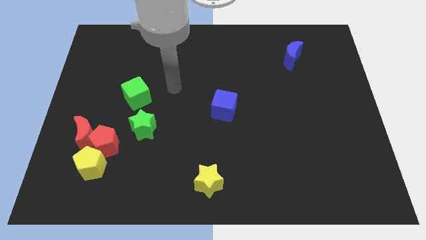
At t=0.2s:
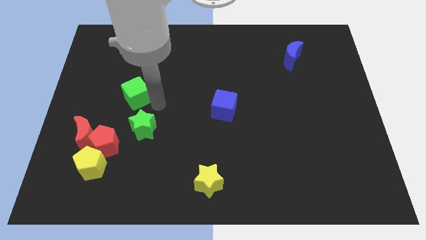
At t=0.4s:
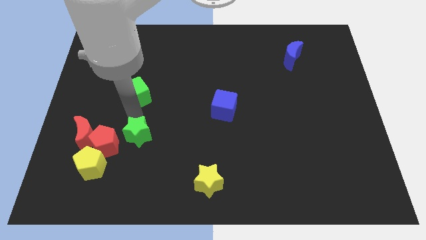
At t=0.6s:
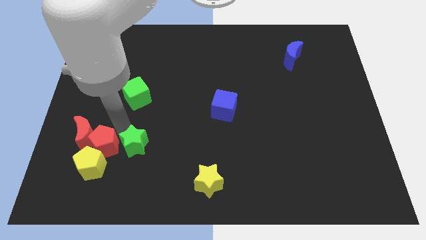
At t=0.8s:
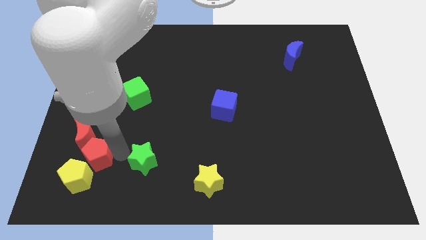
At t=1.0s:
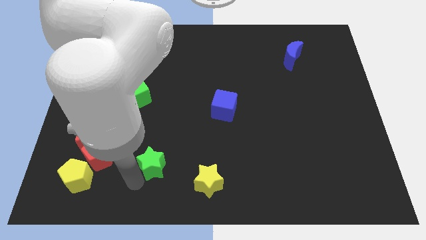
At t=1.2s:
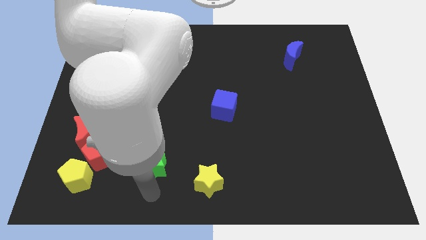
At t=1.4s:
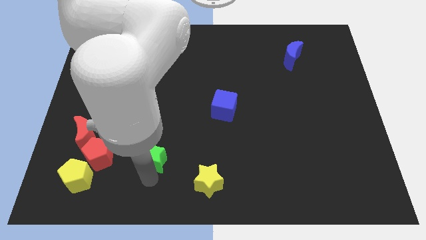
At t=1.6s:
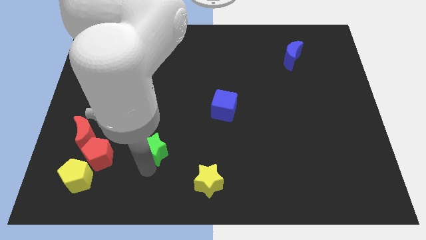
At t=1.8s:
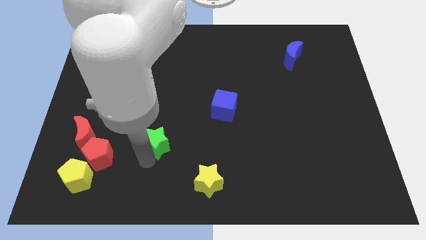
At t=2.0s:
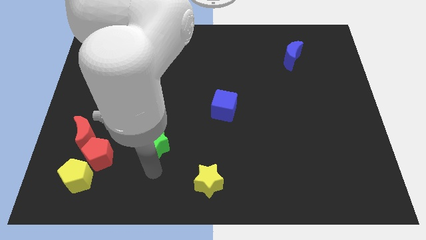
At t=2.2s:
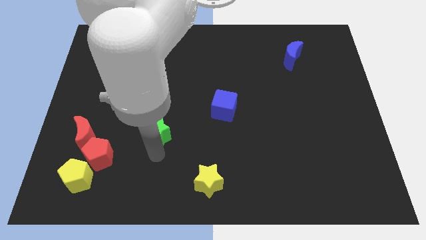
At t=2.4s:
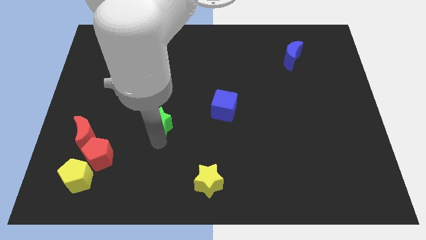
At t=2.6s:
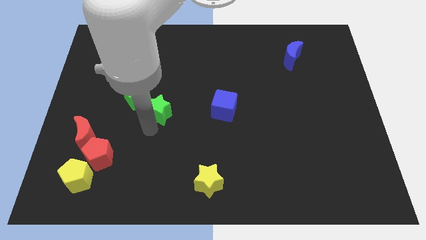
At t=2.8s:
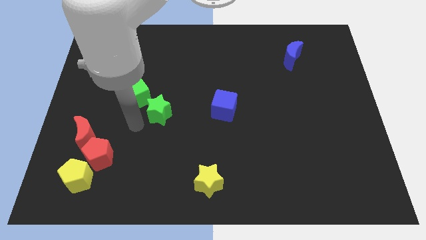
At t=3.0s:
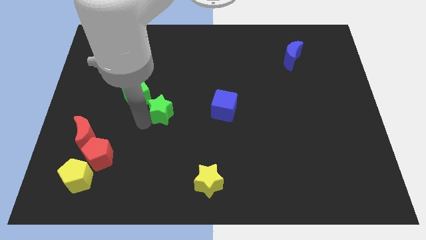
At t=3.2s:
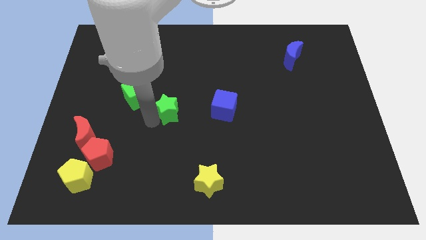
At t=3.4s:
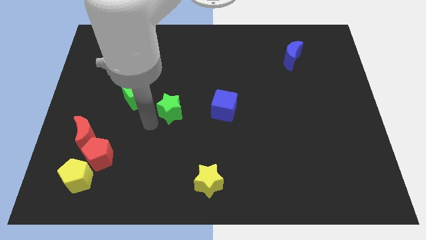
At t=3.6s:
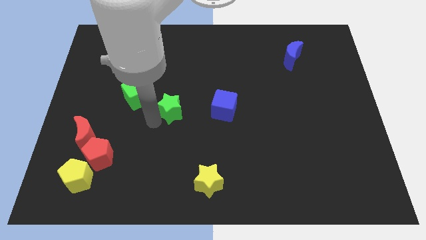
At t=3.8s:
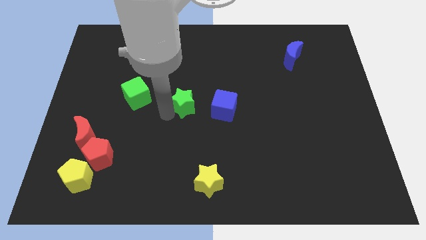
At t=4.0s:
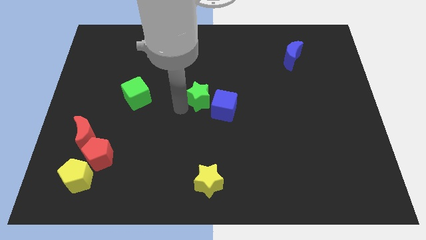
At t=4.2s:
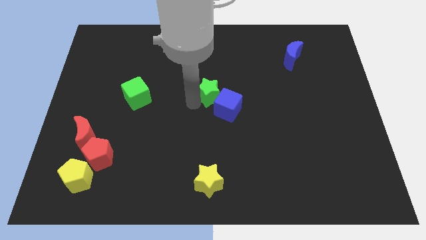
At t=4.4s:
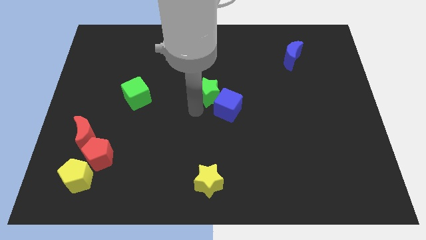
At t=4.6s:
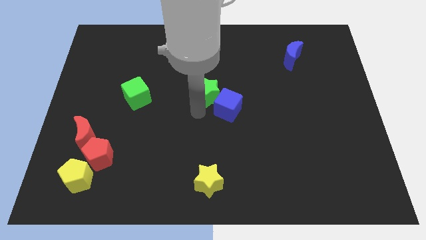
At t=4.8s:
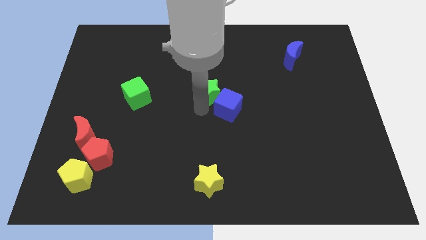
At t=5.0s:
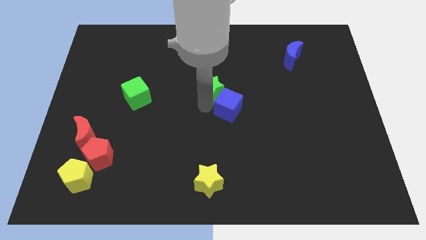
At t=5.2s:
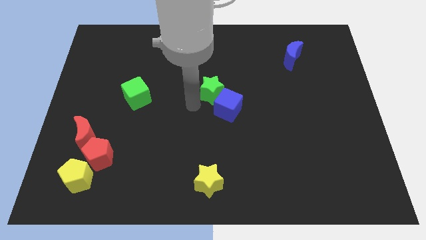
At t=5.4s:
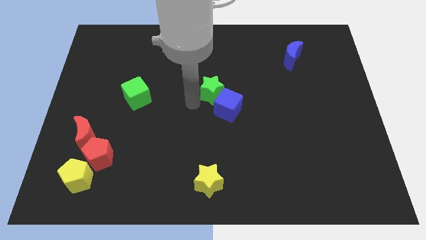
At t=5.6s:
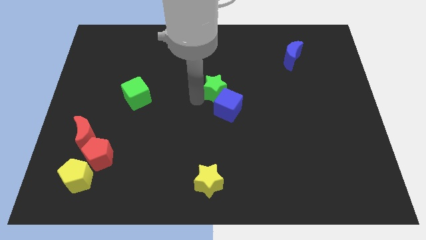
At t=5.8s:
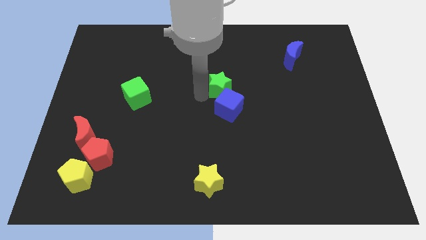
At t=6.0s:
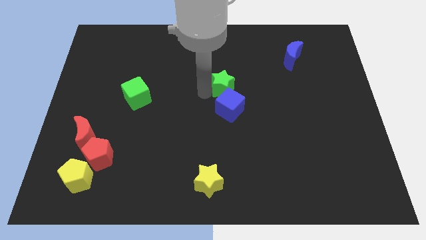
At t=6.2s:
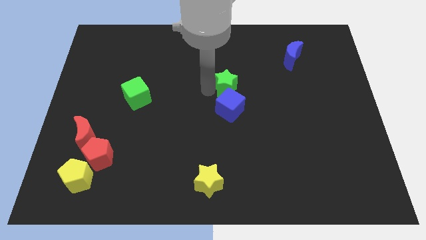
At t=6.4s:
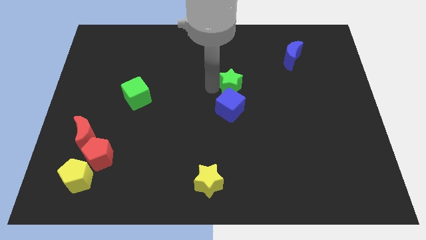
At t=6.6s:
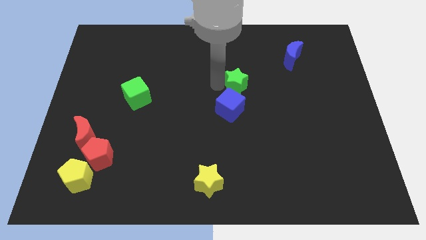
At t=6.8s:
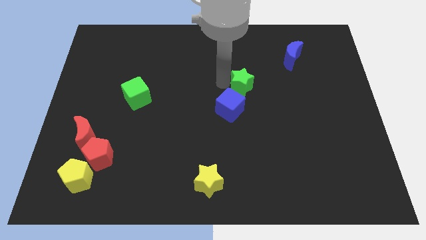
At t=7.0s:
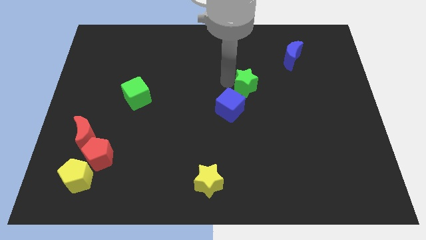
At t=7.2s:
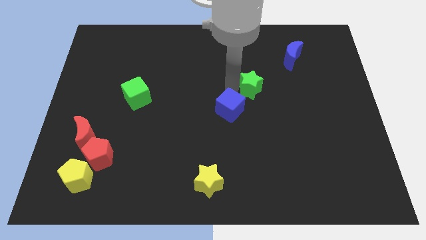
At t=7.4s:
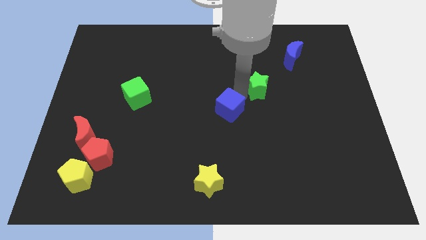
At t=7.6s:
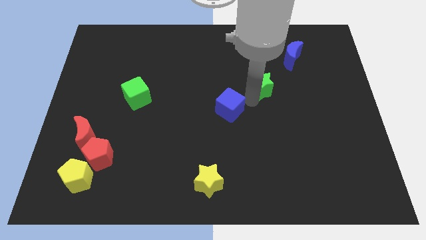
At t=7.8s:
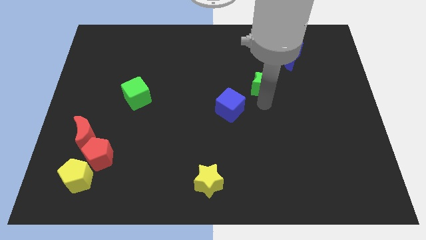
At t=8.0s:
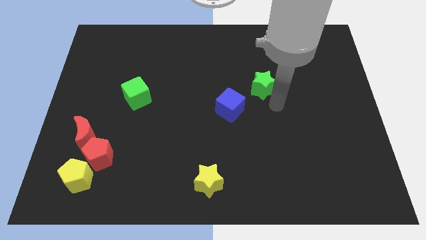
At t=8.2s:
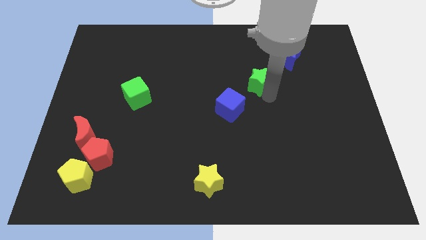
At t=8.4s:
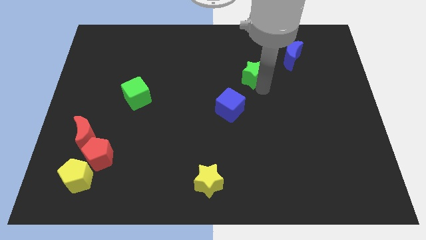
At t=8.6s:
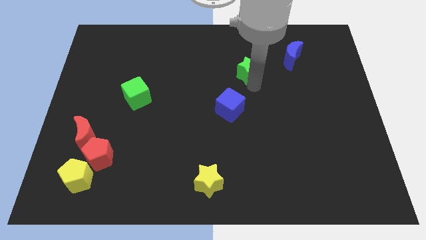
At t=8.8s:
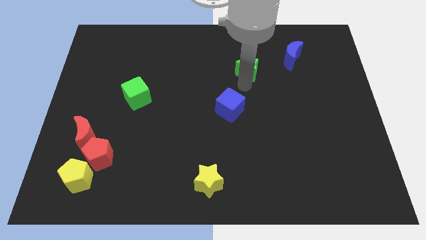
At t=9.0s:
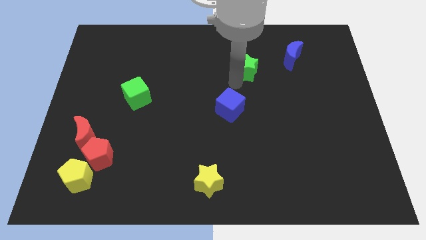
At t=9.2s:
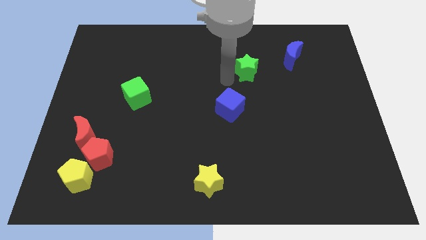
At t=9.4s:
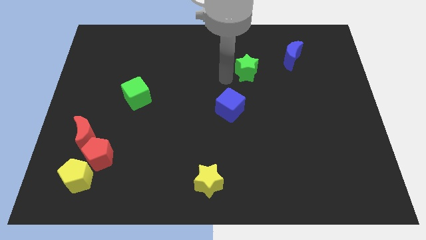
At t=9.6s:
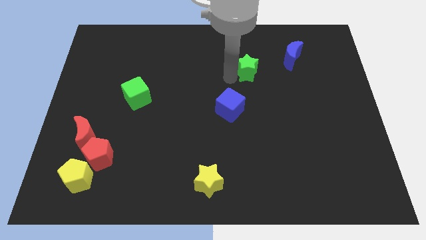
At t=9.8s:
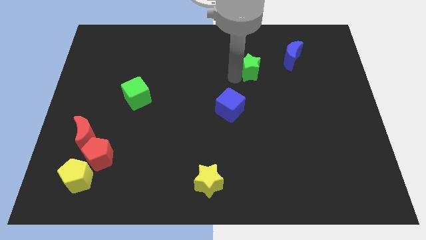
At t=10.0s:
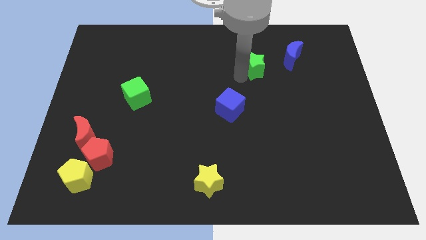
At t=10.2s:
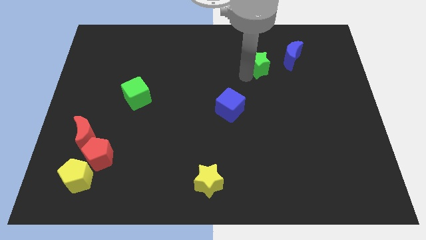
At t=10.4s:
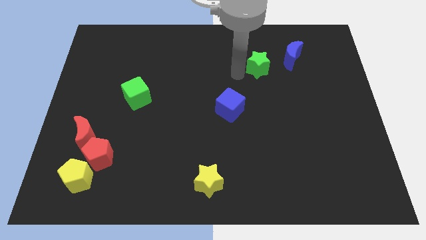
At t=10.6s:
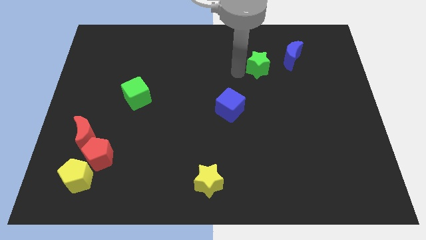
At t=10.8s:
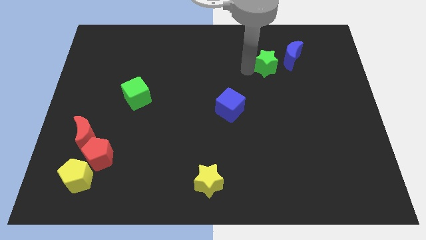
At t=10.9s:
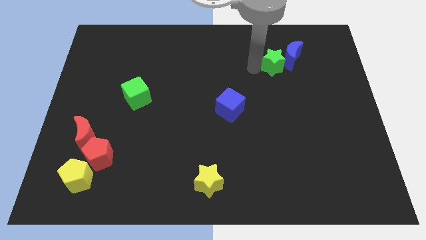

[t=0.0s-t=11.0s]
slide the green star next to the blue moon
